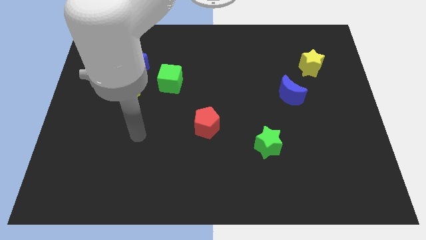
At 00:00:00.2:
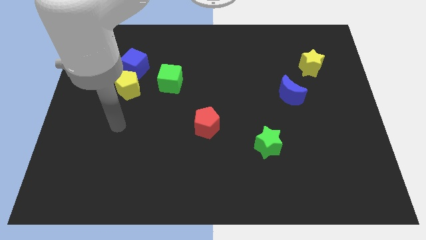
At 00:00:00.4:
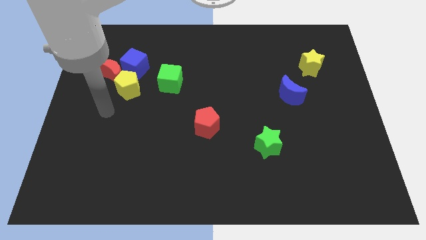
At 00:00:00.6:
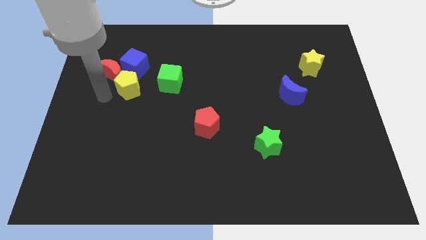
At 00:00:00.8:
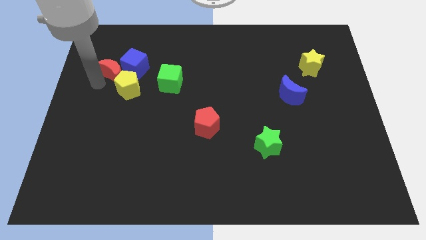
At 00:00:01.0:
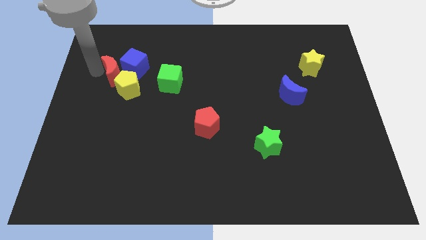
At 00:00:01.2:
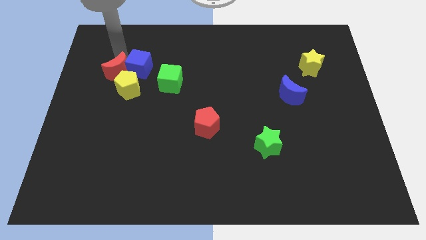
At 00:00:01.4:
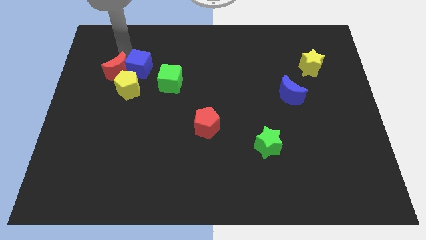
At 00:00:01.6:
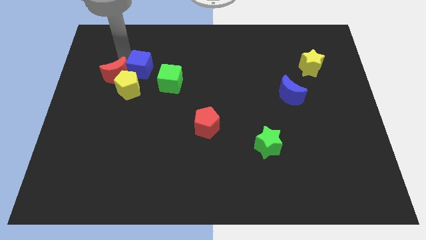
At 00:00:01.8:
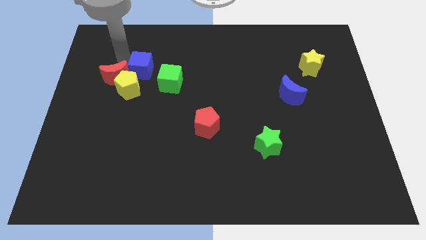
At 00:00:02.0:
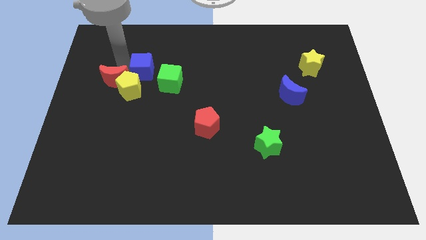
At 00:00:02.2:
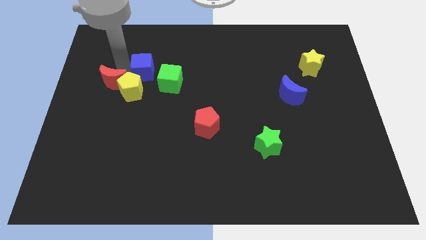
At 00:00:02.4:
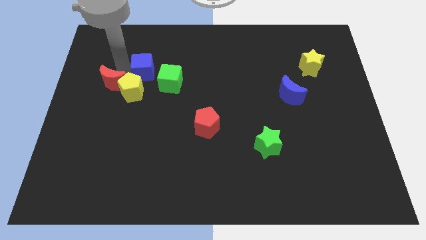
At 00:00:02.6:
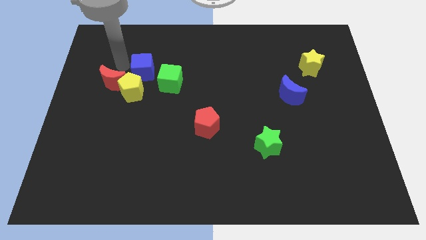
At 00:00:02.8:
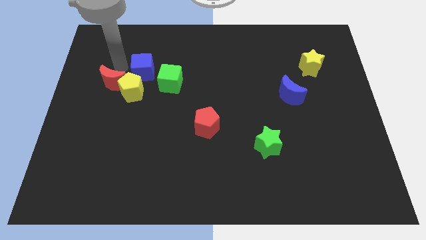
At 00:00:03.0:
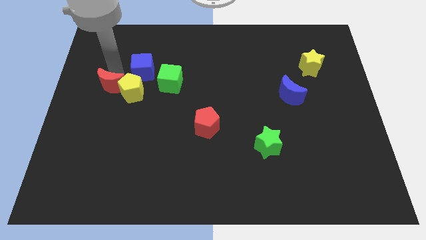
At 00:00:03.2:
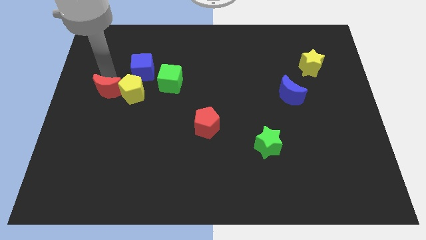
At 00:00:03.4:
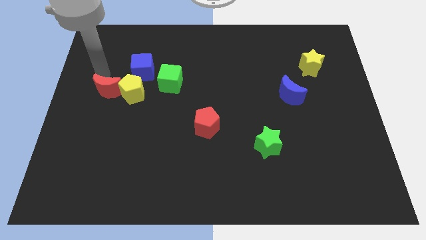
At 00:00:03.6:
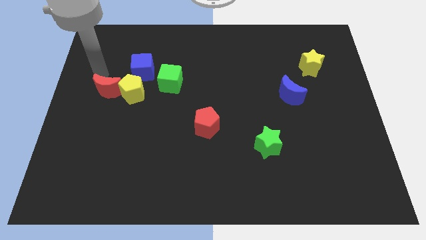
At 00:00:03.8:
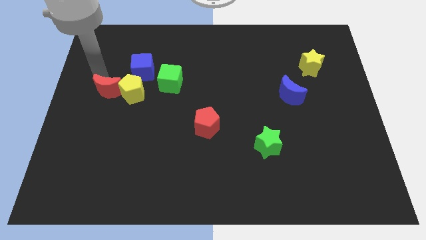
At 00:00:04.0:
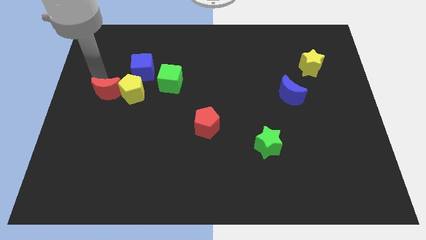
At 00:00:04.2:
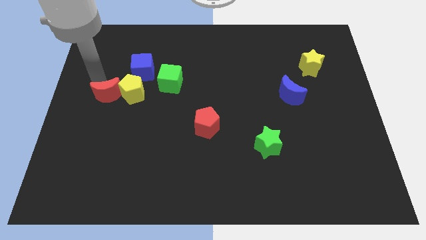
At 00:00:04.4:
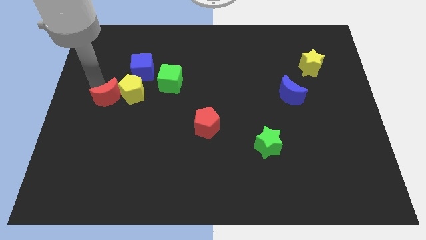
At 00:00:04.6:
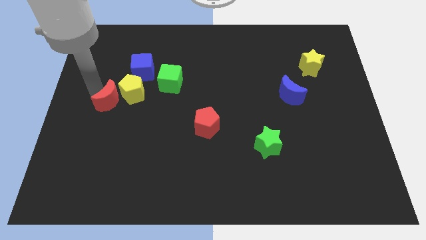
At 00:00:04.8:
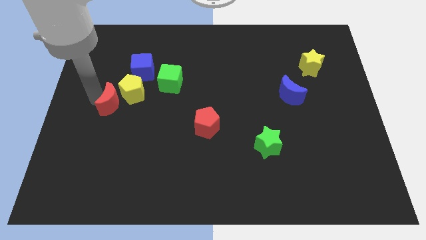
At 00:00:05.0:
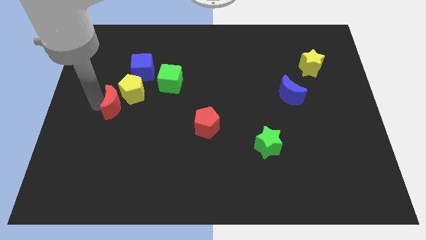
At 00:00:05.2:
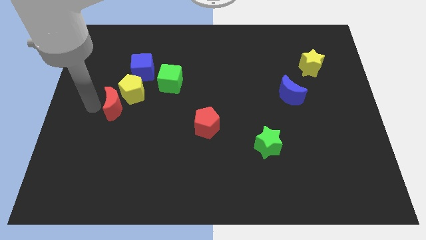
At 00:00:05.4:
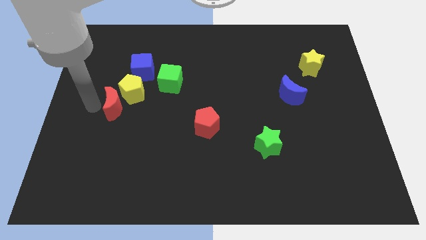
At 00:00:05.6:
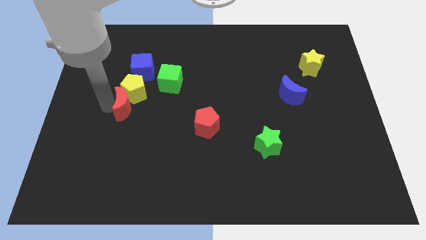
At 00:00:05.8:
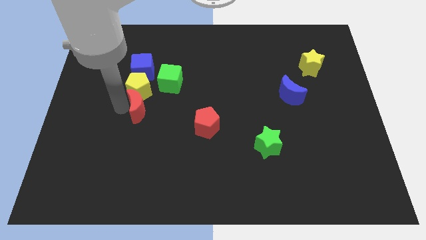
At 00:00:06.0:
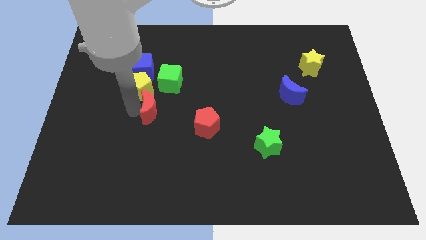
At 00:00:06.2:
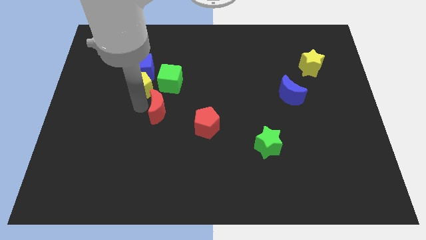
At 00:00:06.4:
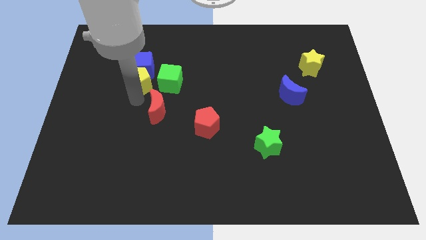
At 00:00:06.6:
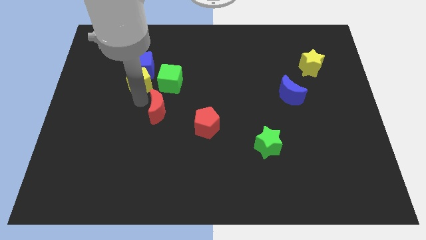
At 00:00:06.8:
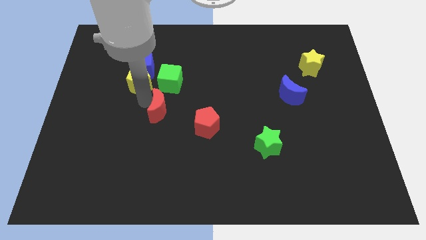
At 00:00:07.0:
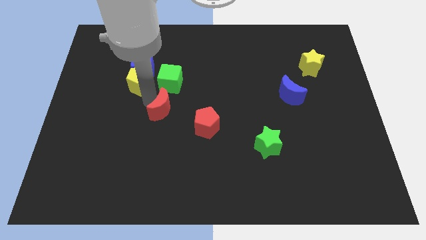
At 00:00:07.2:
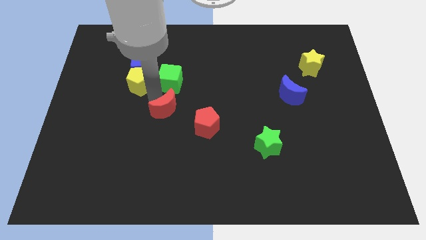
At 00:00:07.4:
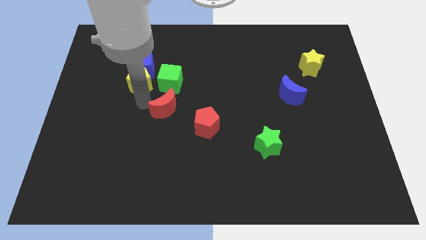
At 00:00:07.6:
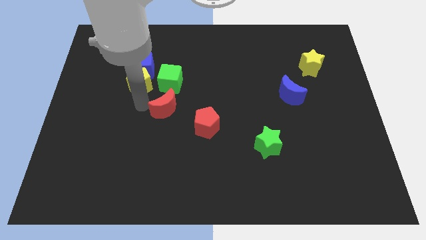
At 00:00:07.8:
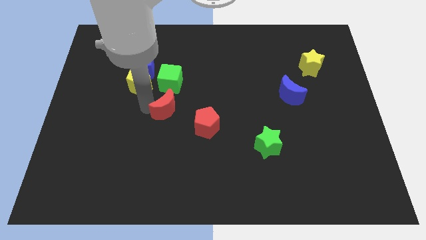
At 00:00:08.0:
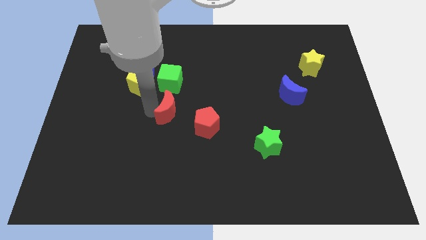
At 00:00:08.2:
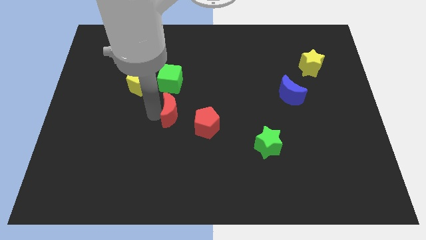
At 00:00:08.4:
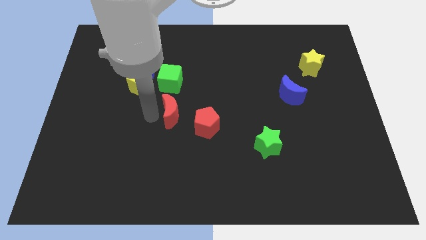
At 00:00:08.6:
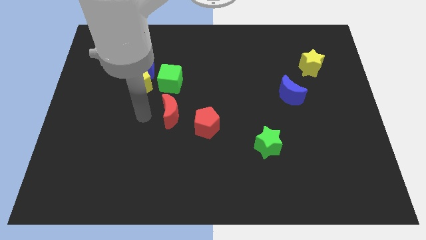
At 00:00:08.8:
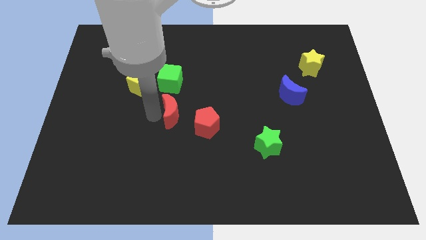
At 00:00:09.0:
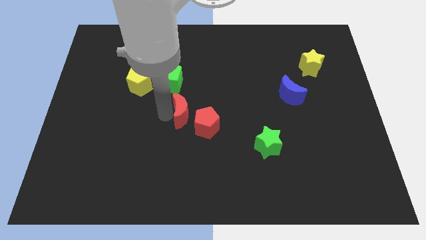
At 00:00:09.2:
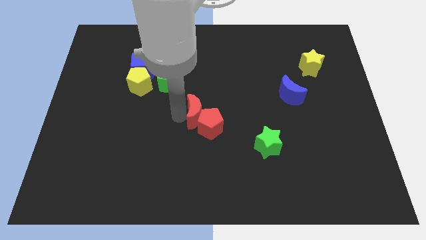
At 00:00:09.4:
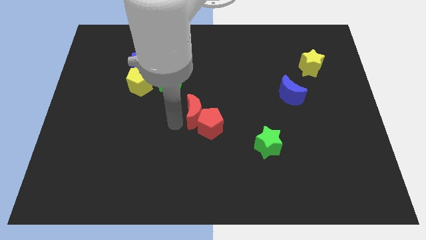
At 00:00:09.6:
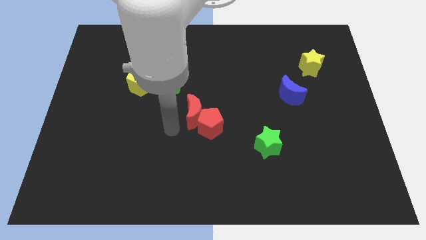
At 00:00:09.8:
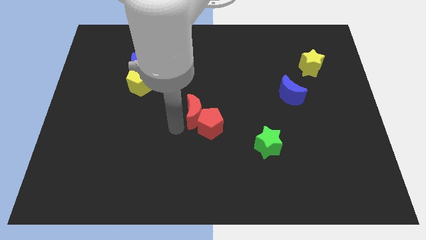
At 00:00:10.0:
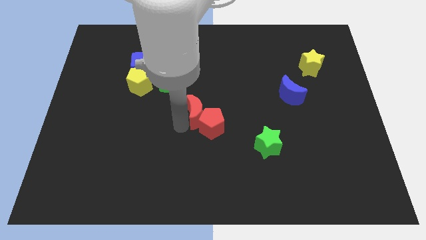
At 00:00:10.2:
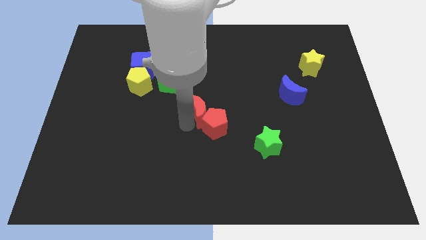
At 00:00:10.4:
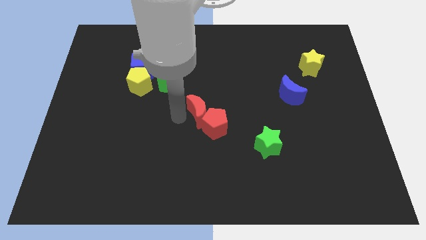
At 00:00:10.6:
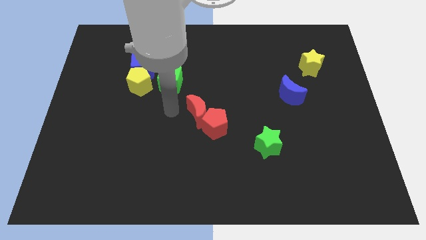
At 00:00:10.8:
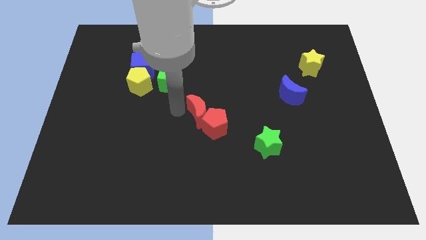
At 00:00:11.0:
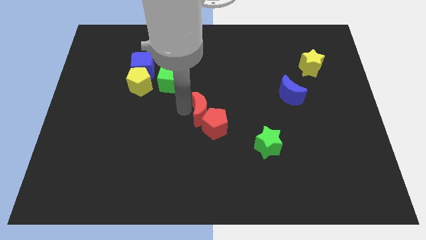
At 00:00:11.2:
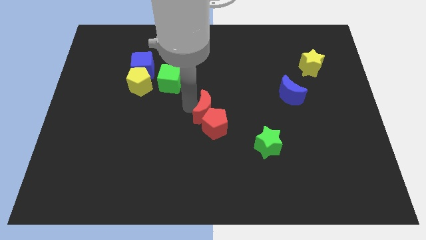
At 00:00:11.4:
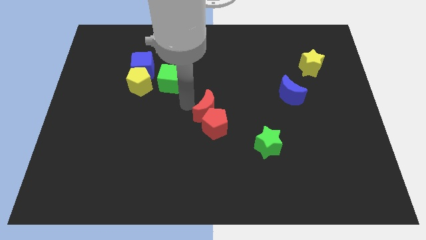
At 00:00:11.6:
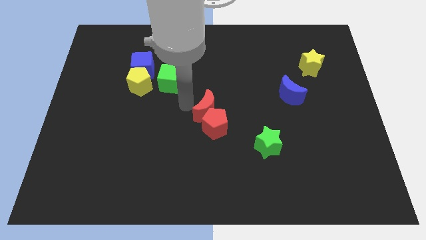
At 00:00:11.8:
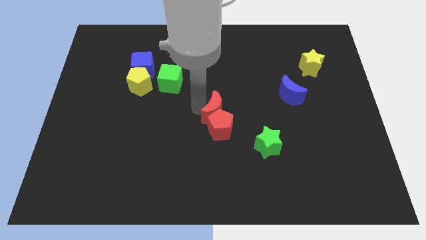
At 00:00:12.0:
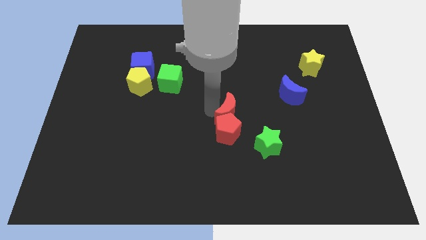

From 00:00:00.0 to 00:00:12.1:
move the red moon diagonally up and to the left of the green star
